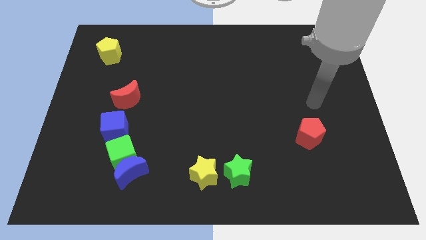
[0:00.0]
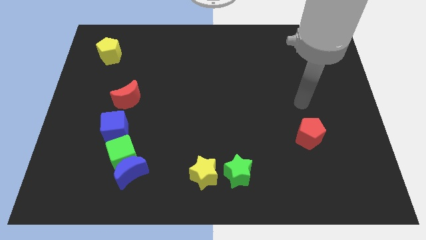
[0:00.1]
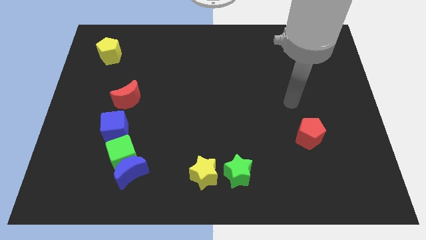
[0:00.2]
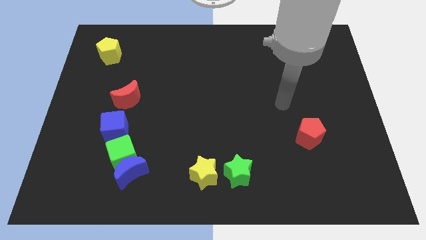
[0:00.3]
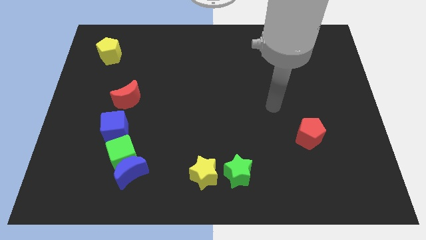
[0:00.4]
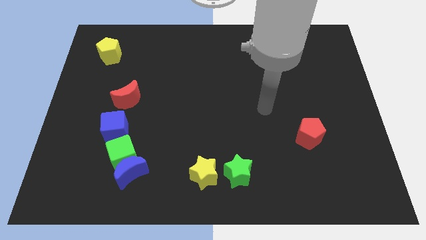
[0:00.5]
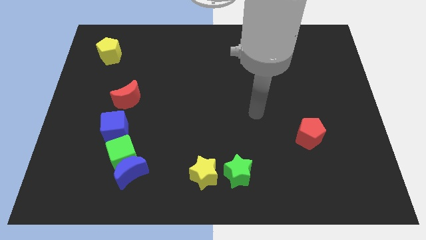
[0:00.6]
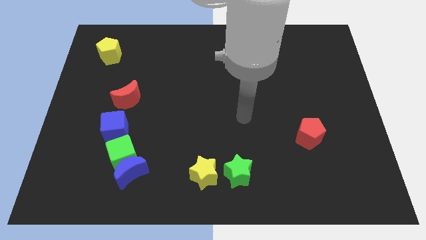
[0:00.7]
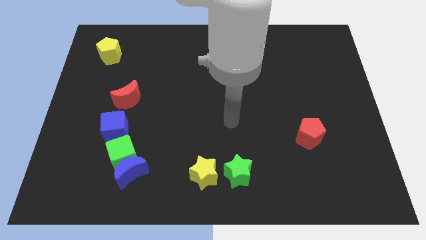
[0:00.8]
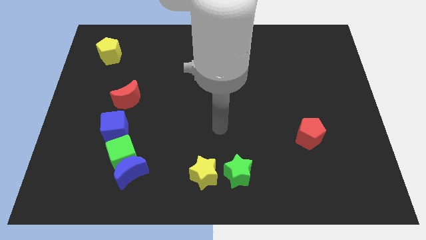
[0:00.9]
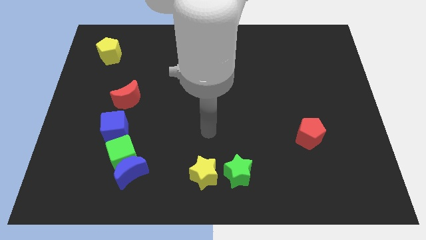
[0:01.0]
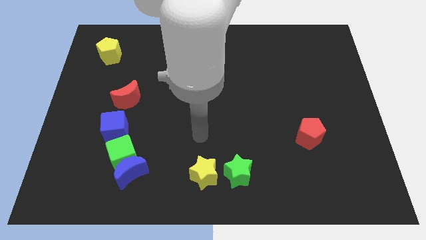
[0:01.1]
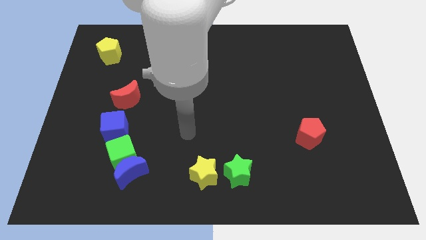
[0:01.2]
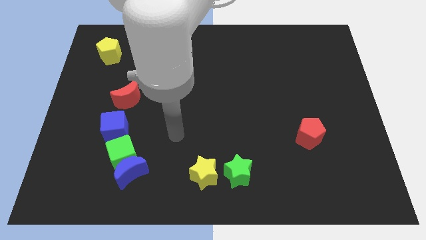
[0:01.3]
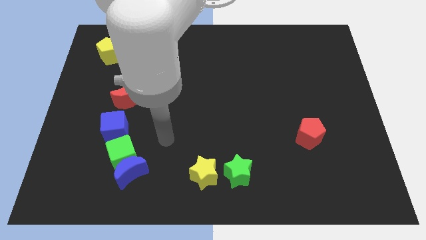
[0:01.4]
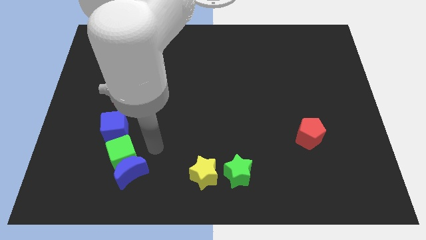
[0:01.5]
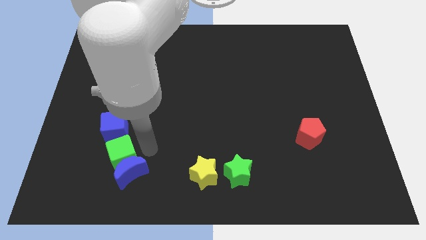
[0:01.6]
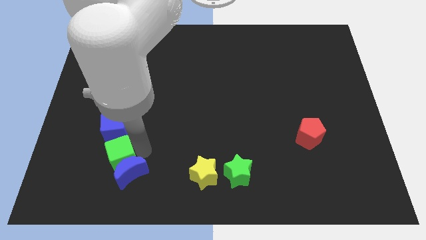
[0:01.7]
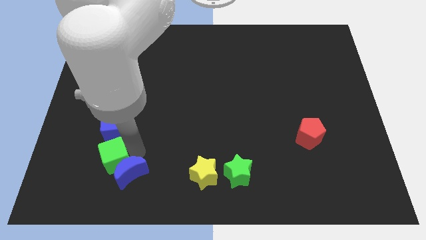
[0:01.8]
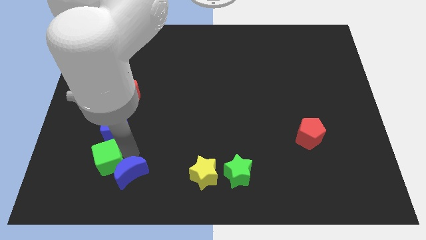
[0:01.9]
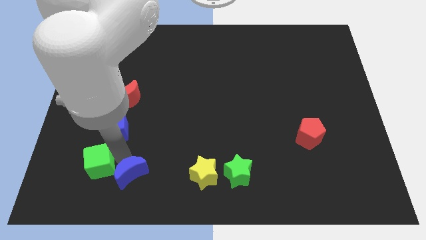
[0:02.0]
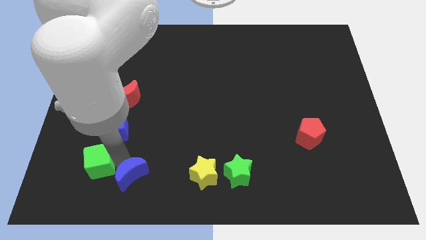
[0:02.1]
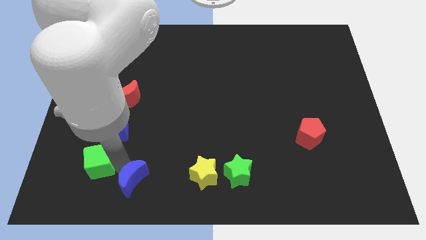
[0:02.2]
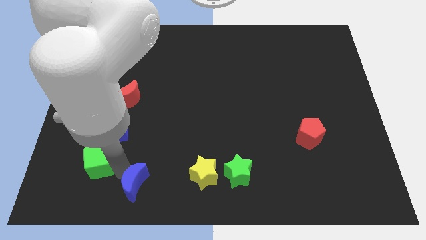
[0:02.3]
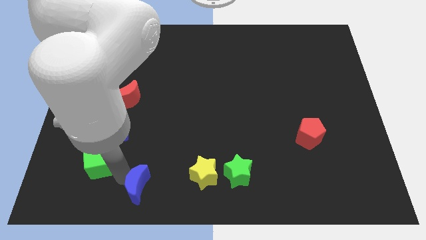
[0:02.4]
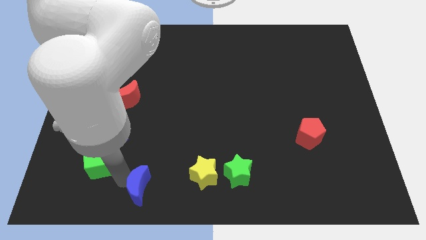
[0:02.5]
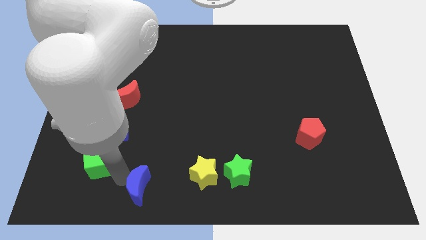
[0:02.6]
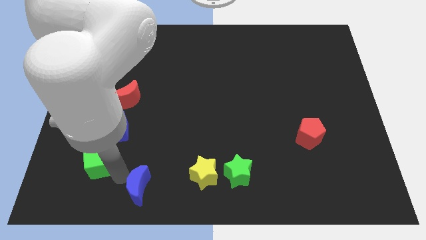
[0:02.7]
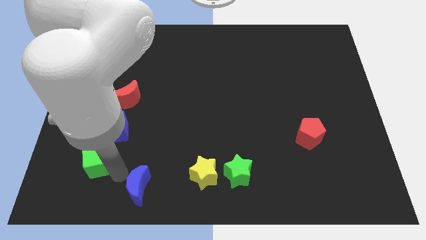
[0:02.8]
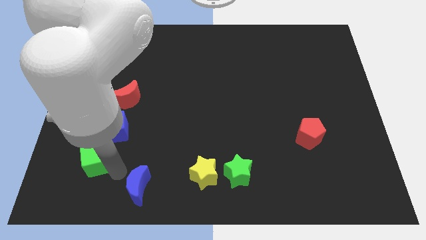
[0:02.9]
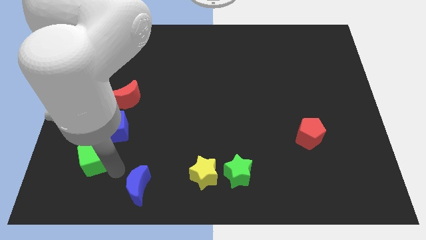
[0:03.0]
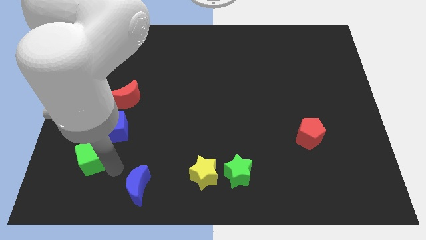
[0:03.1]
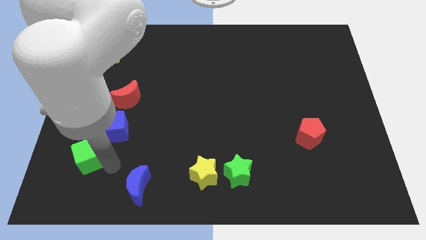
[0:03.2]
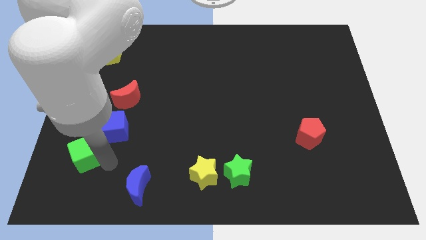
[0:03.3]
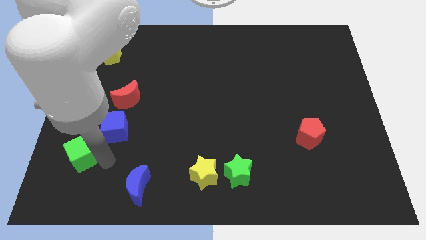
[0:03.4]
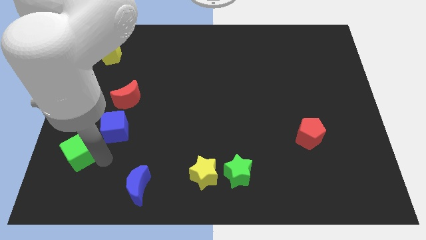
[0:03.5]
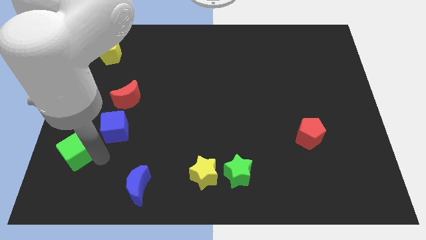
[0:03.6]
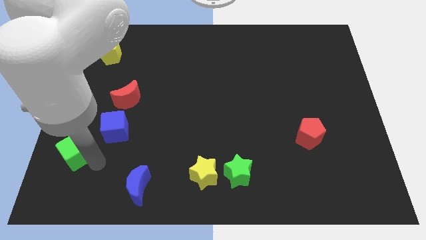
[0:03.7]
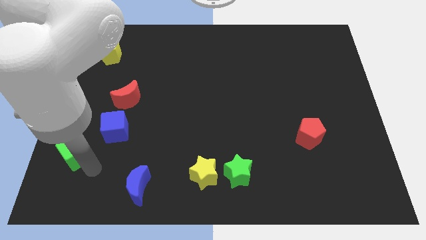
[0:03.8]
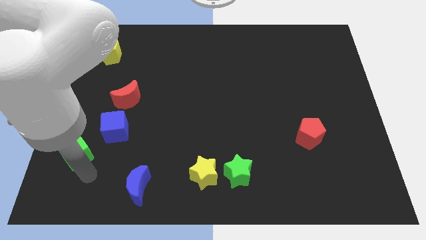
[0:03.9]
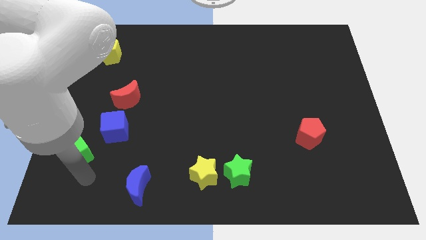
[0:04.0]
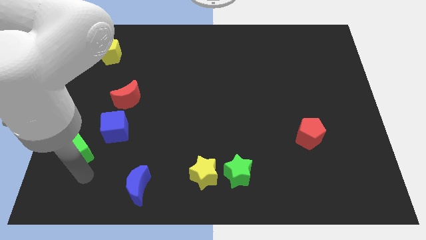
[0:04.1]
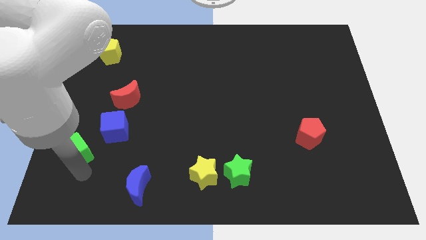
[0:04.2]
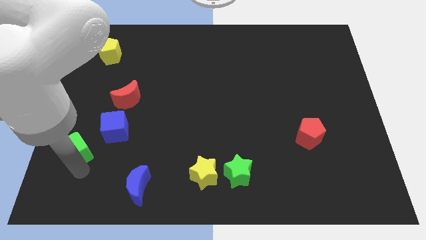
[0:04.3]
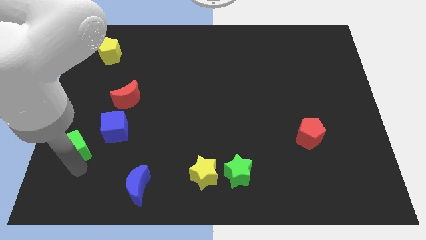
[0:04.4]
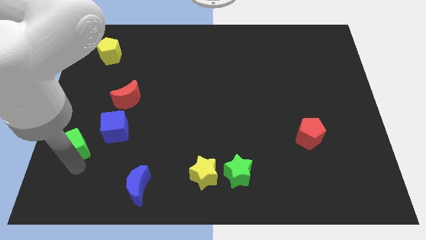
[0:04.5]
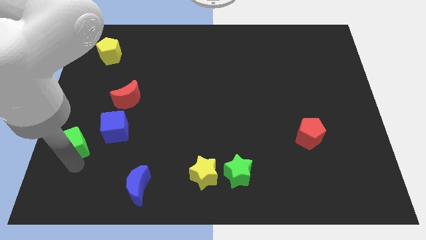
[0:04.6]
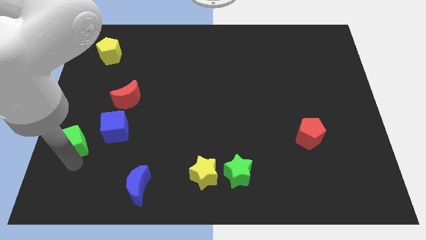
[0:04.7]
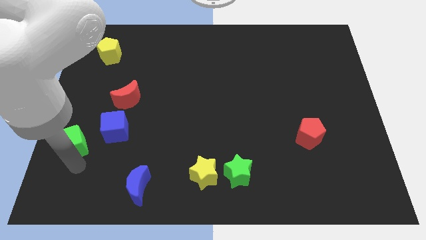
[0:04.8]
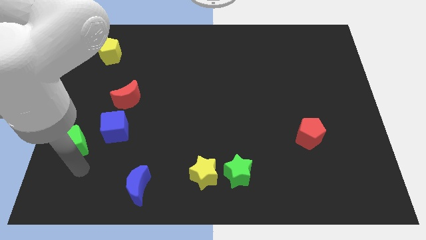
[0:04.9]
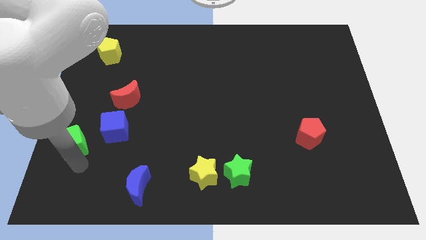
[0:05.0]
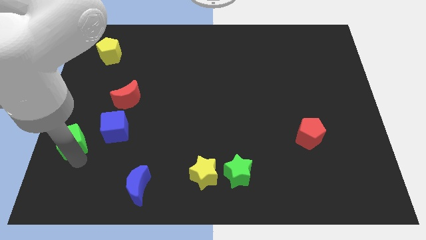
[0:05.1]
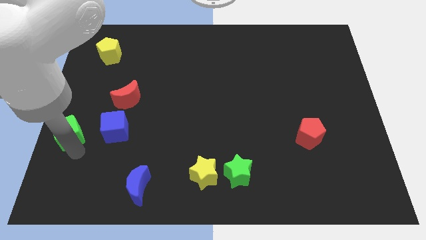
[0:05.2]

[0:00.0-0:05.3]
put the green cube to the center left
